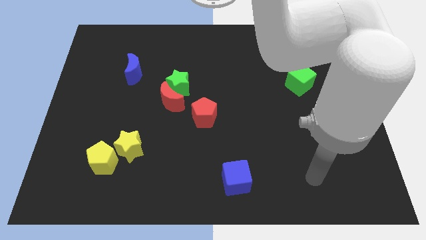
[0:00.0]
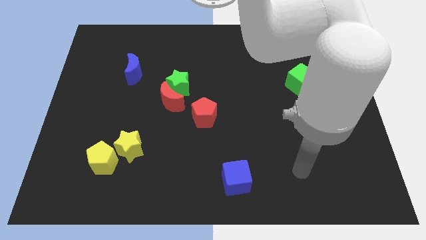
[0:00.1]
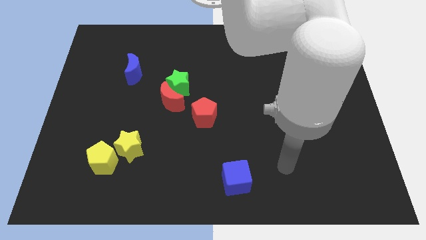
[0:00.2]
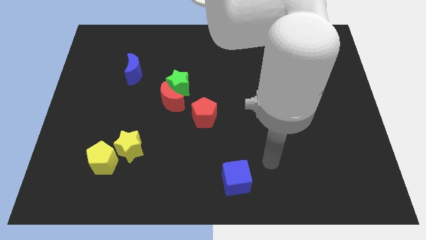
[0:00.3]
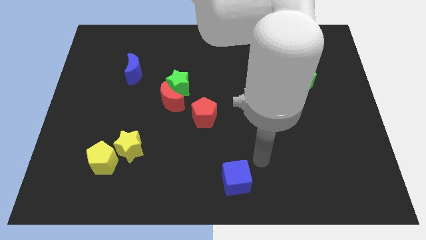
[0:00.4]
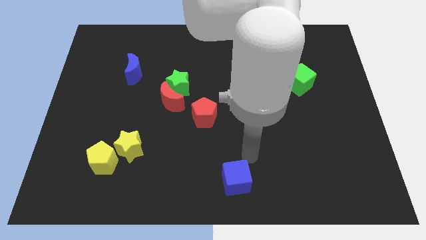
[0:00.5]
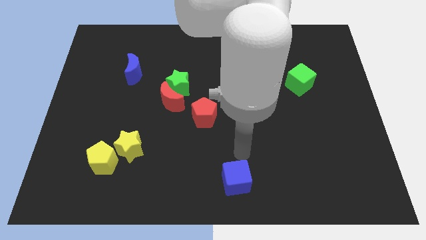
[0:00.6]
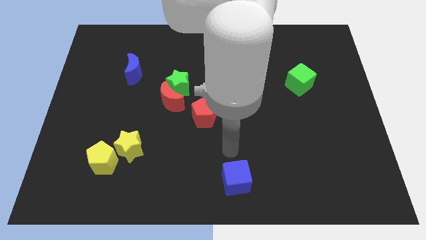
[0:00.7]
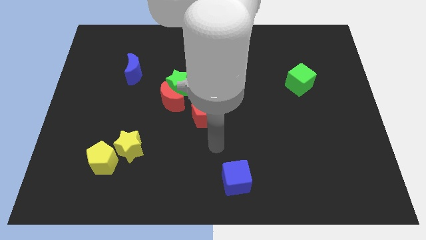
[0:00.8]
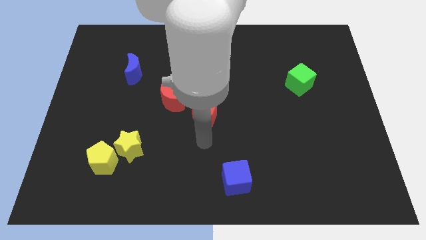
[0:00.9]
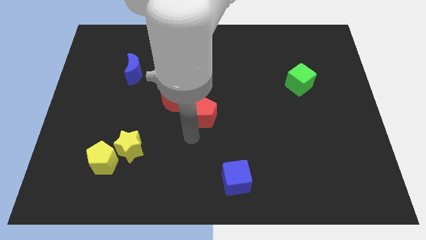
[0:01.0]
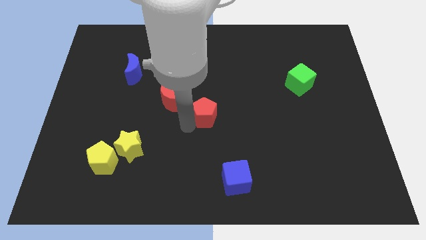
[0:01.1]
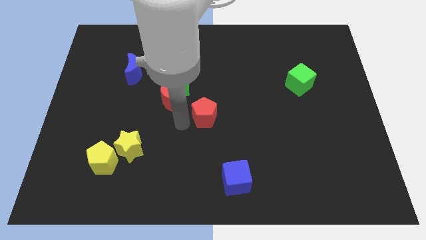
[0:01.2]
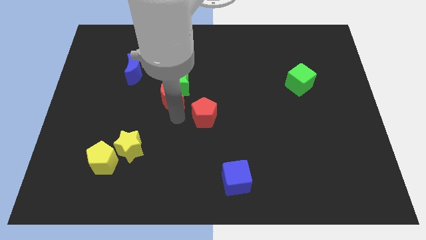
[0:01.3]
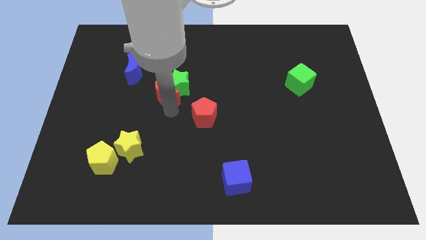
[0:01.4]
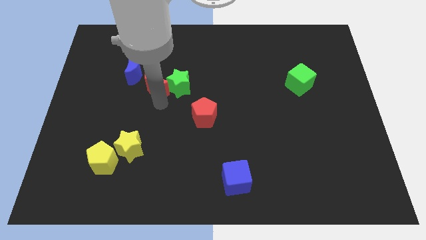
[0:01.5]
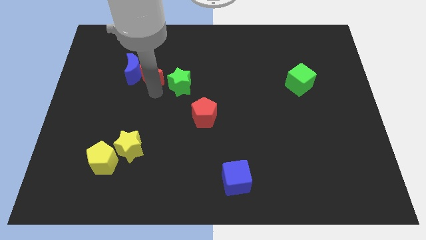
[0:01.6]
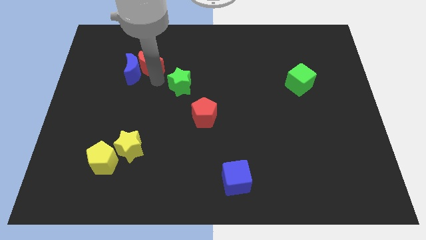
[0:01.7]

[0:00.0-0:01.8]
move the green star away from the red moon

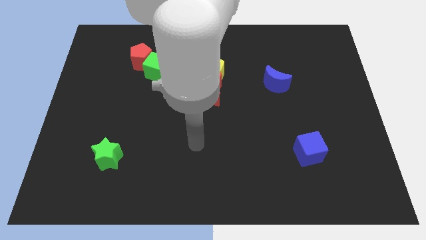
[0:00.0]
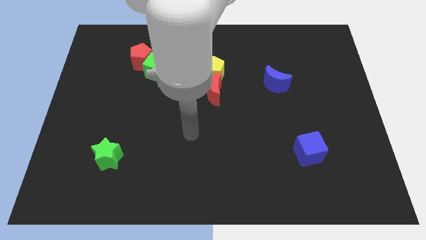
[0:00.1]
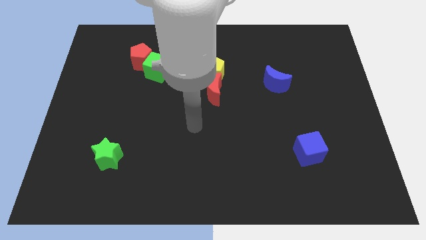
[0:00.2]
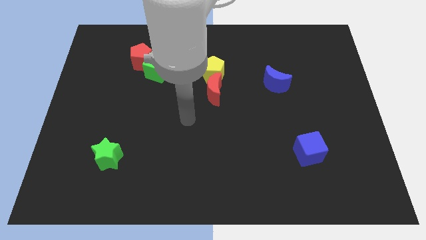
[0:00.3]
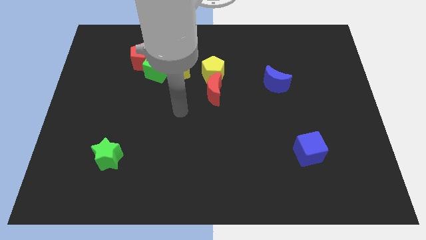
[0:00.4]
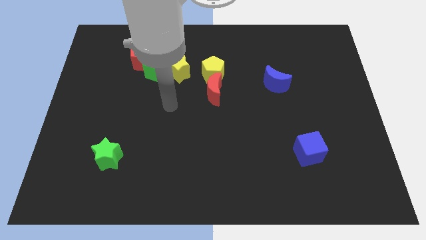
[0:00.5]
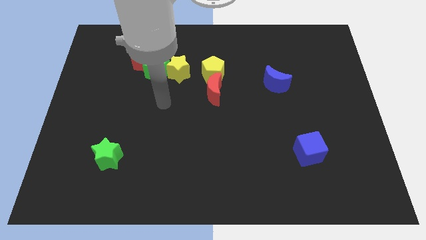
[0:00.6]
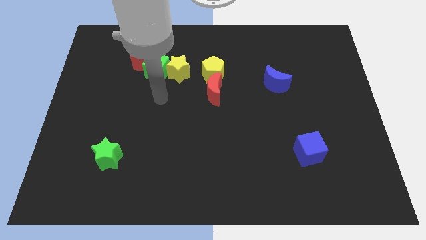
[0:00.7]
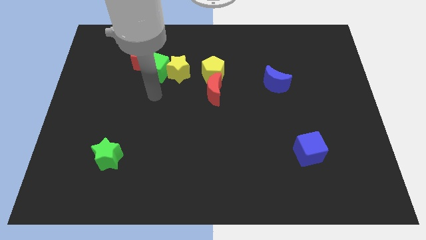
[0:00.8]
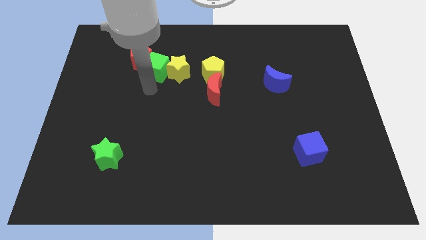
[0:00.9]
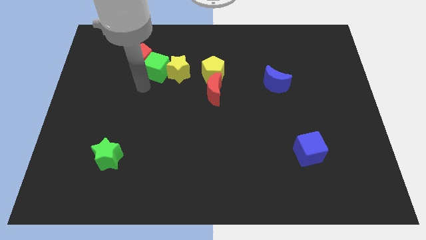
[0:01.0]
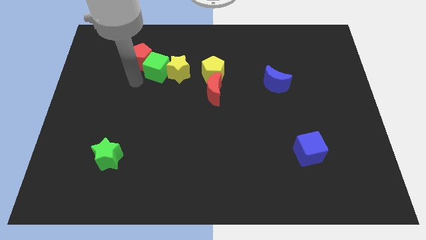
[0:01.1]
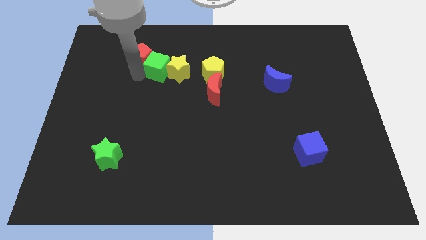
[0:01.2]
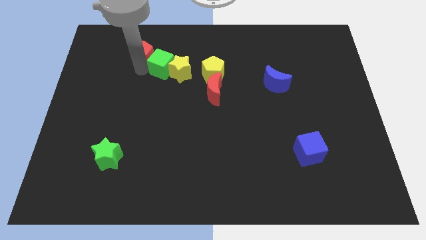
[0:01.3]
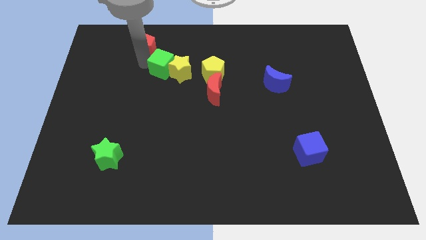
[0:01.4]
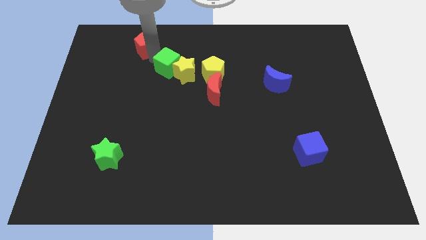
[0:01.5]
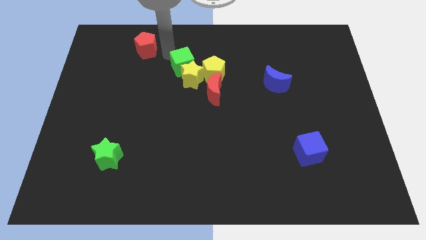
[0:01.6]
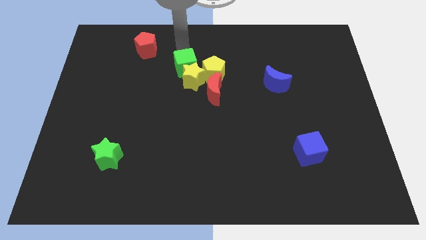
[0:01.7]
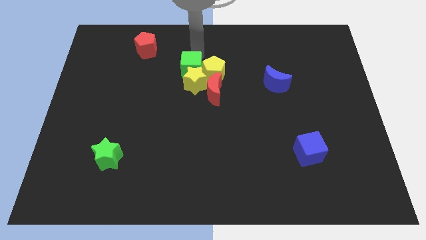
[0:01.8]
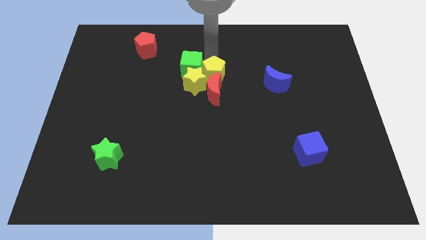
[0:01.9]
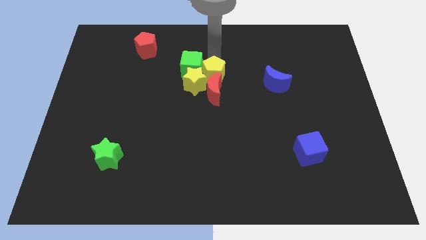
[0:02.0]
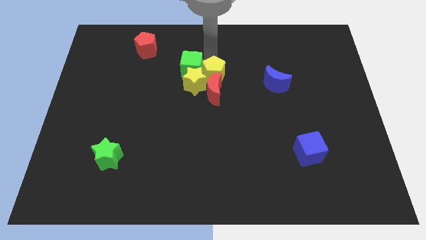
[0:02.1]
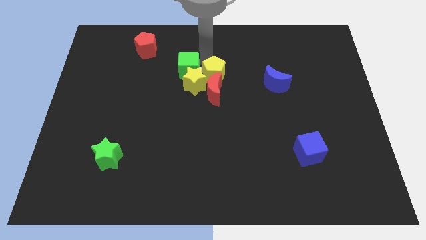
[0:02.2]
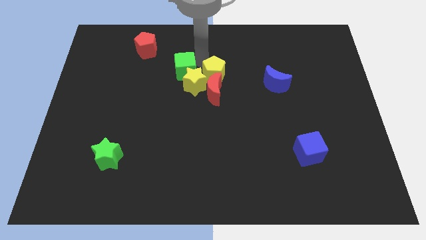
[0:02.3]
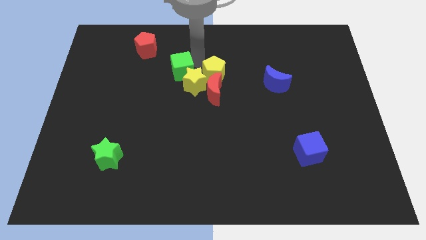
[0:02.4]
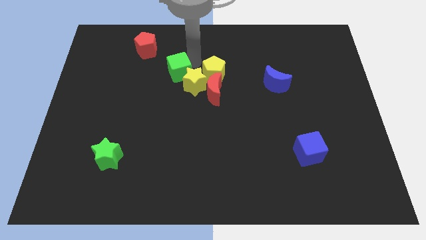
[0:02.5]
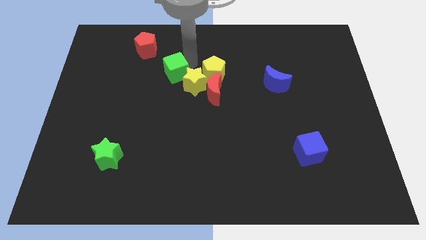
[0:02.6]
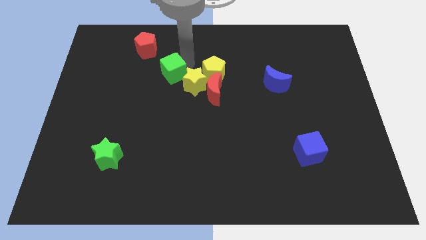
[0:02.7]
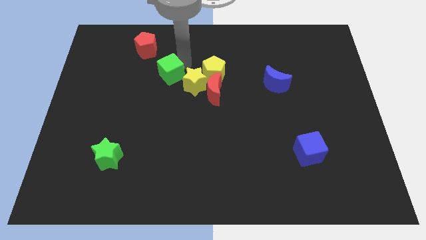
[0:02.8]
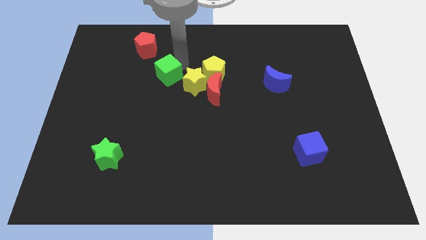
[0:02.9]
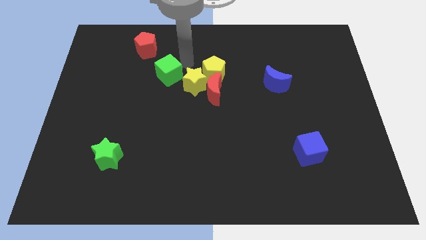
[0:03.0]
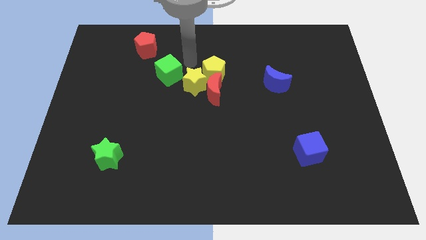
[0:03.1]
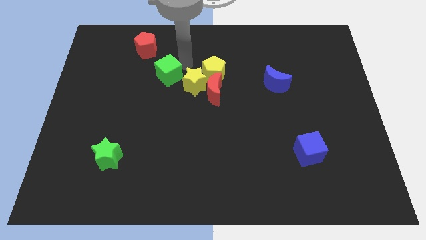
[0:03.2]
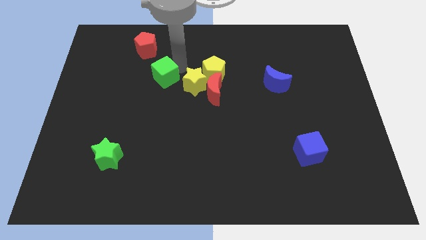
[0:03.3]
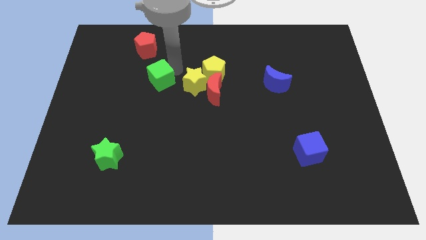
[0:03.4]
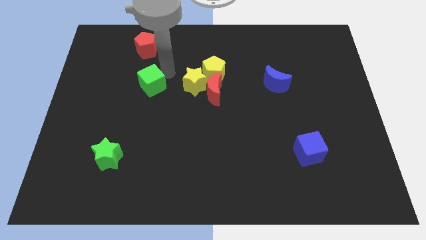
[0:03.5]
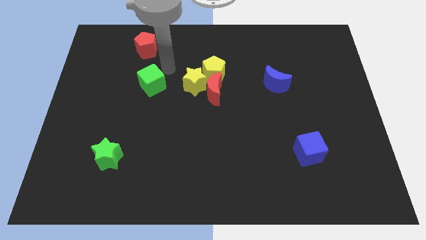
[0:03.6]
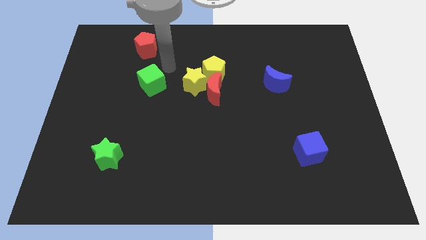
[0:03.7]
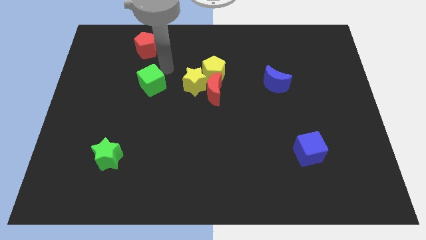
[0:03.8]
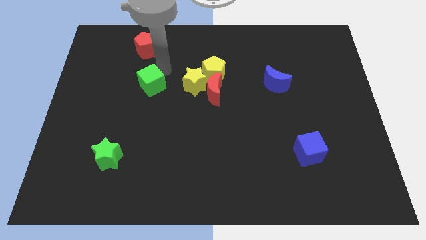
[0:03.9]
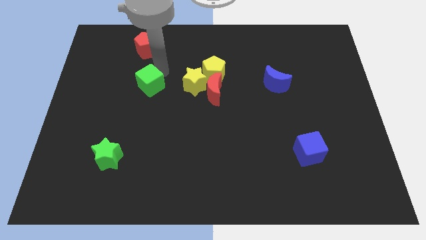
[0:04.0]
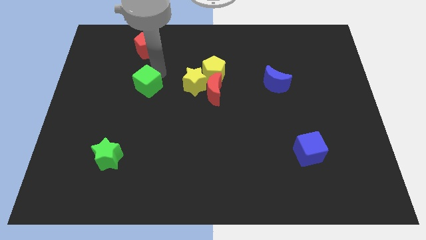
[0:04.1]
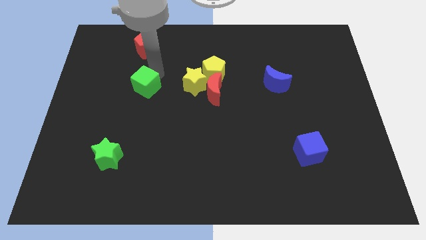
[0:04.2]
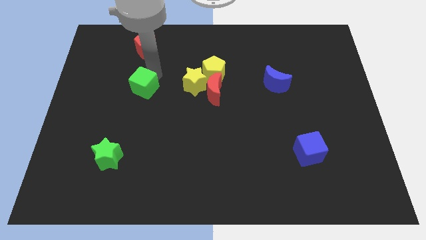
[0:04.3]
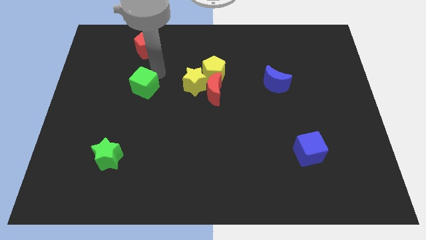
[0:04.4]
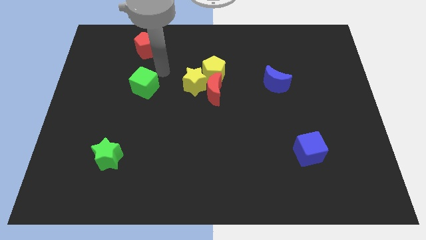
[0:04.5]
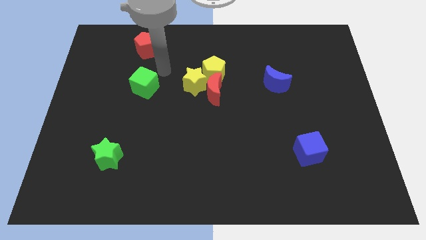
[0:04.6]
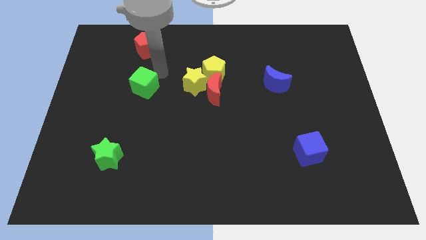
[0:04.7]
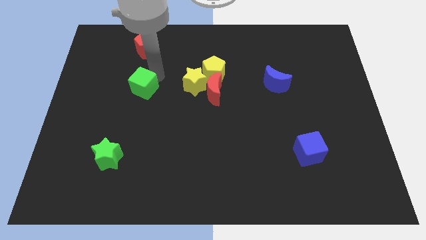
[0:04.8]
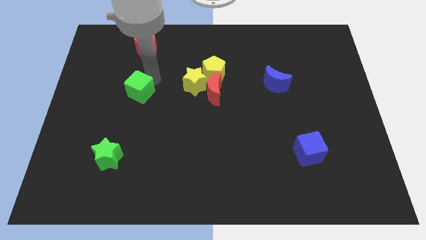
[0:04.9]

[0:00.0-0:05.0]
separate the green cube from the yellow star and red pentagon

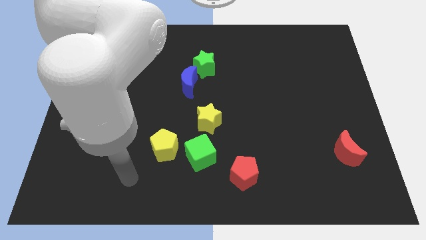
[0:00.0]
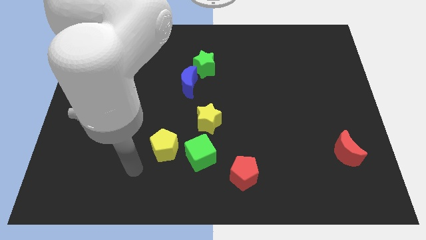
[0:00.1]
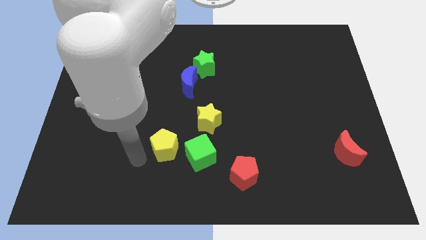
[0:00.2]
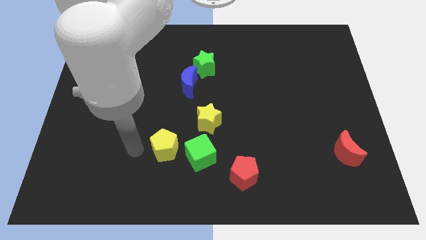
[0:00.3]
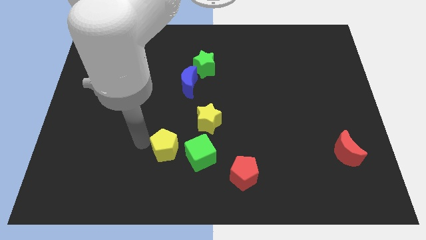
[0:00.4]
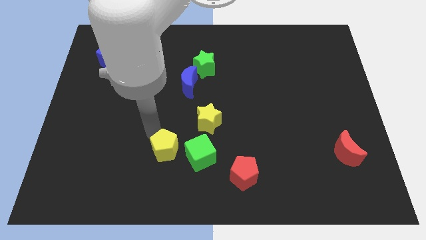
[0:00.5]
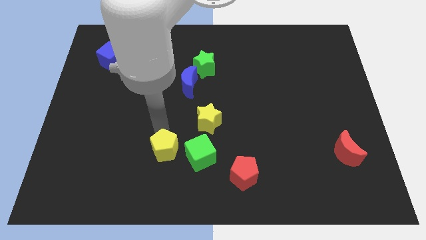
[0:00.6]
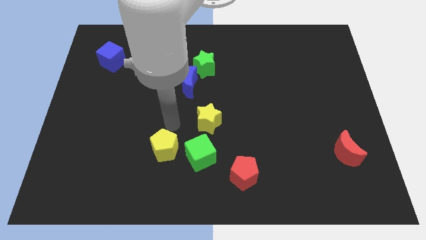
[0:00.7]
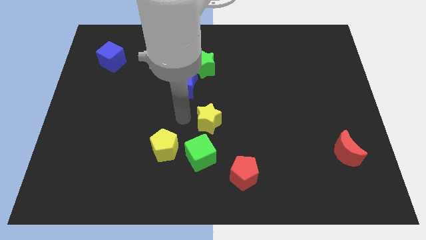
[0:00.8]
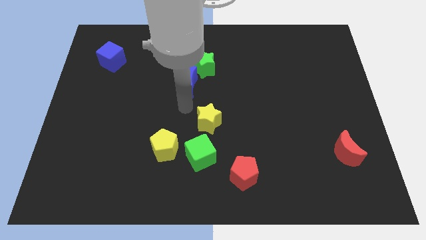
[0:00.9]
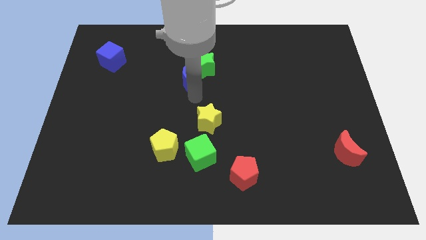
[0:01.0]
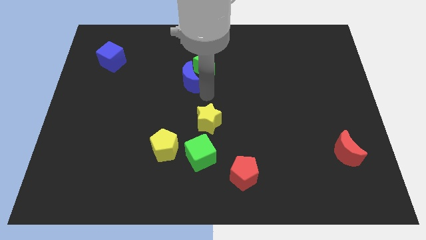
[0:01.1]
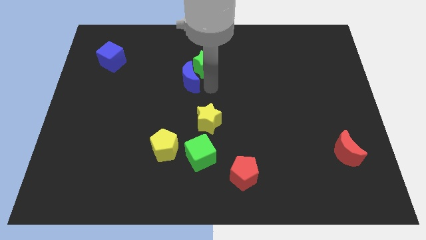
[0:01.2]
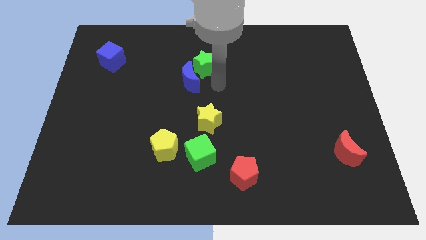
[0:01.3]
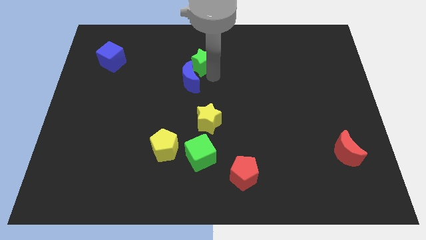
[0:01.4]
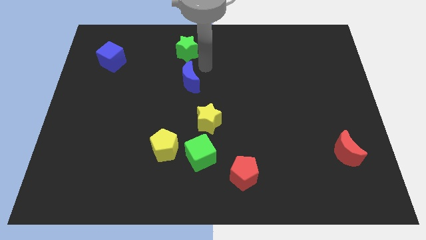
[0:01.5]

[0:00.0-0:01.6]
separate the blue moon from the green star

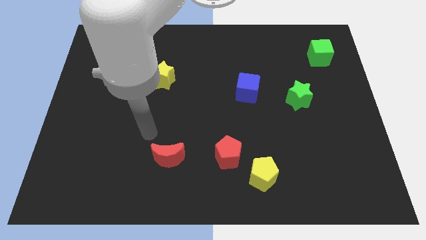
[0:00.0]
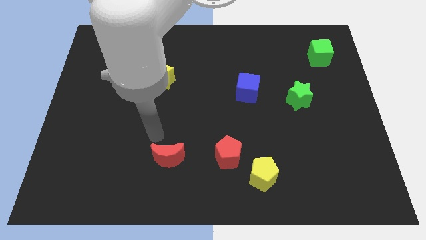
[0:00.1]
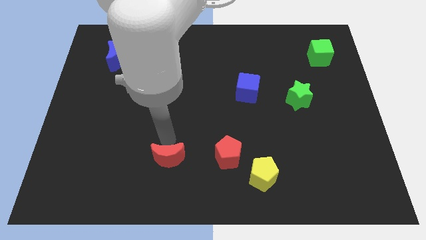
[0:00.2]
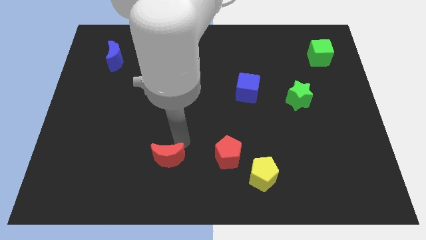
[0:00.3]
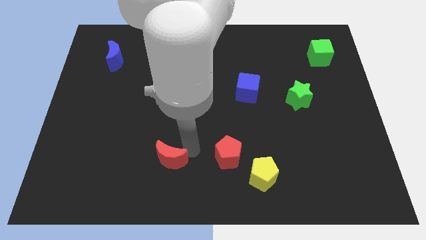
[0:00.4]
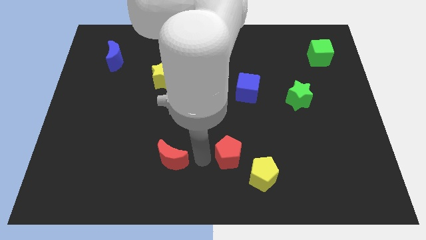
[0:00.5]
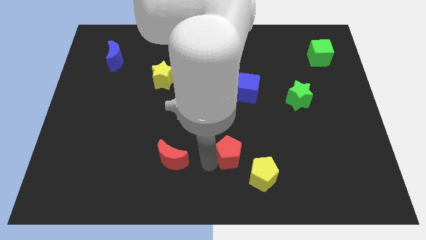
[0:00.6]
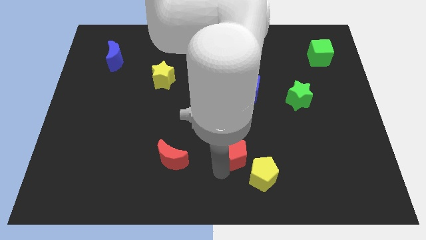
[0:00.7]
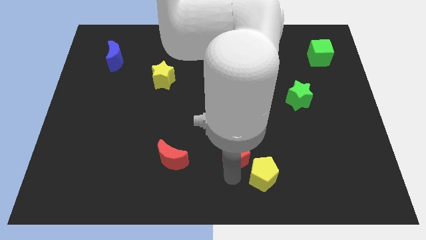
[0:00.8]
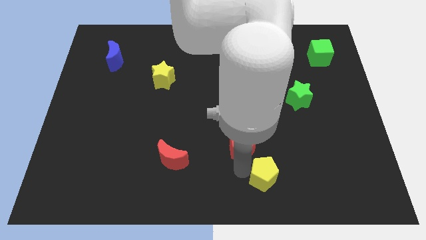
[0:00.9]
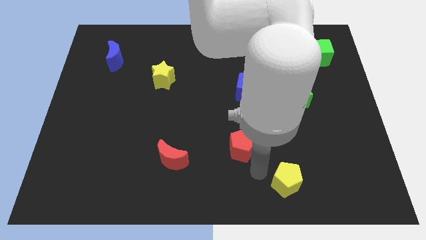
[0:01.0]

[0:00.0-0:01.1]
separate the red pentagon from the yellow pentagon
